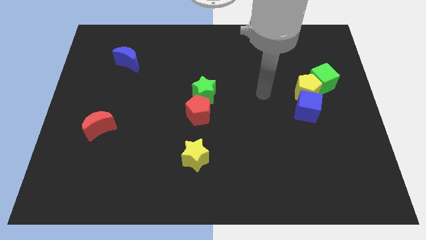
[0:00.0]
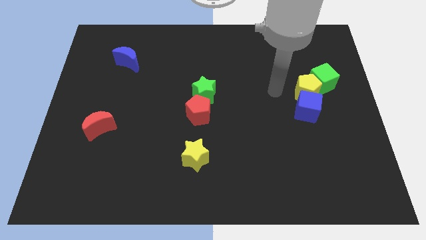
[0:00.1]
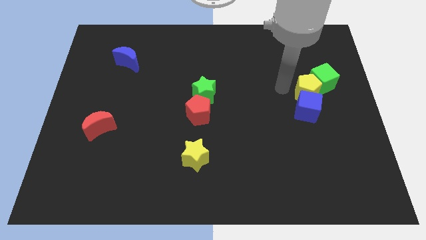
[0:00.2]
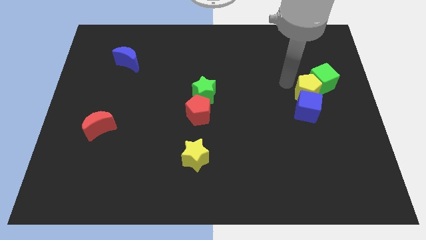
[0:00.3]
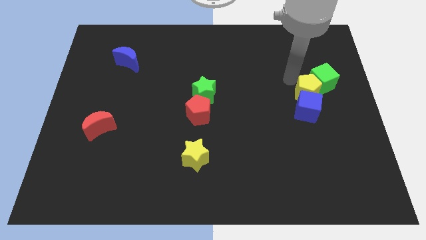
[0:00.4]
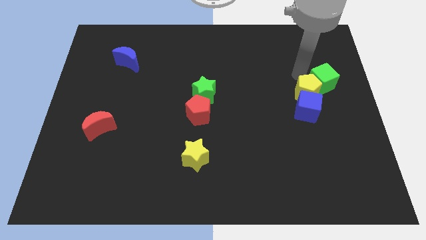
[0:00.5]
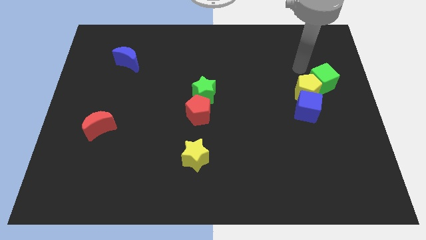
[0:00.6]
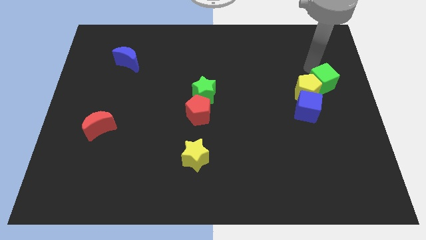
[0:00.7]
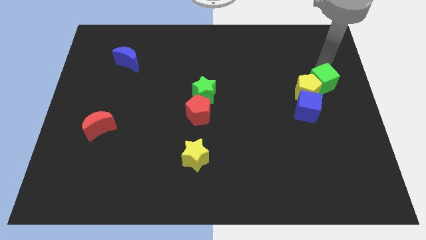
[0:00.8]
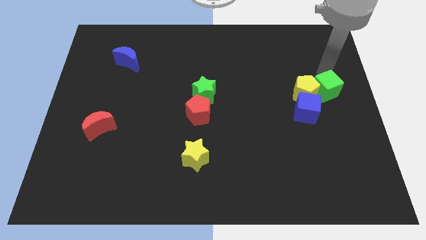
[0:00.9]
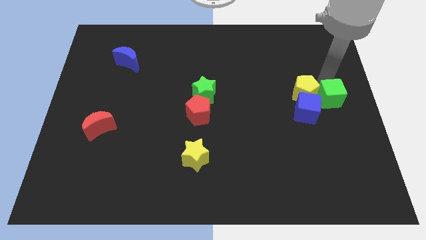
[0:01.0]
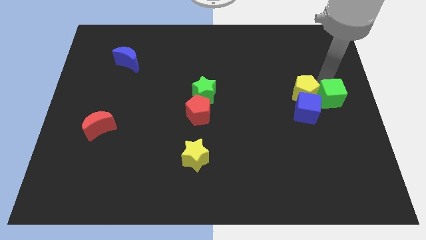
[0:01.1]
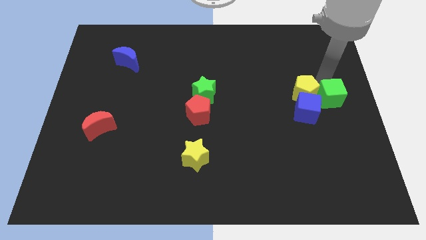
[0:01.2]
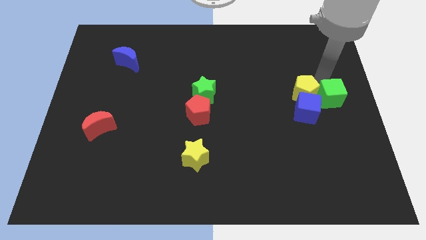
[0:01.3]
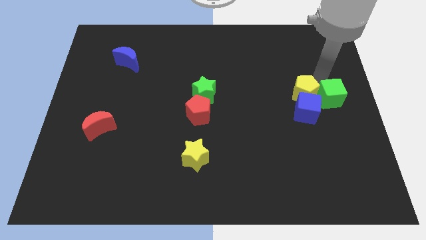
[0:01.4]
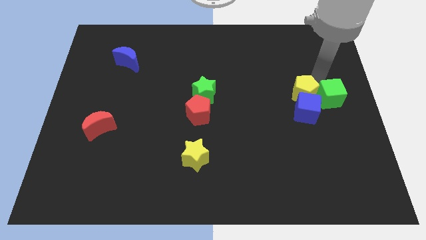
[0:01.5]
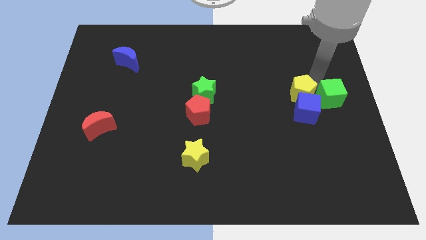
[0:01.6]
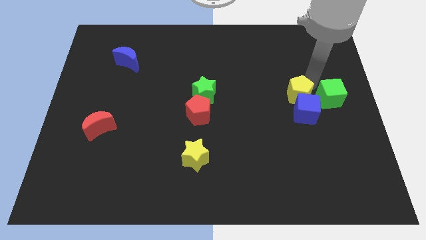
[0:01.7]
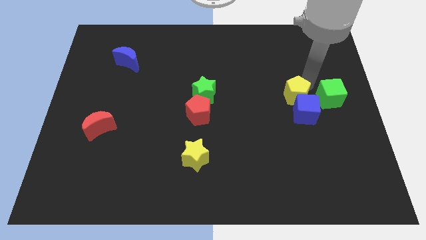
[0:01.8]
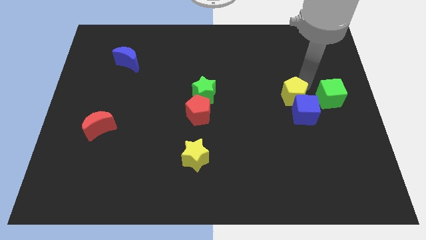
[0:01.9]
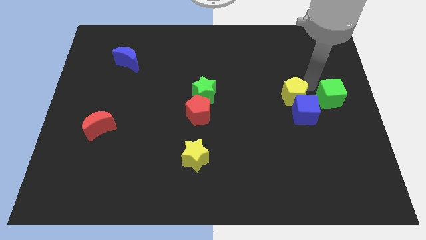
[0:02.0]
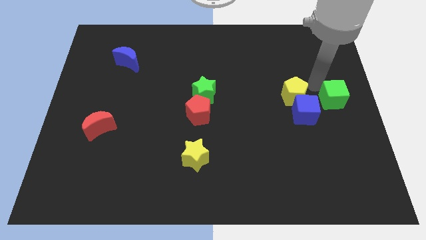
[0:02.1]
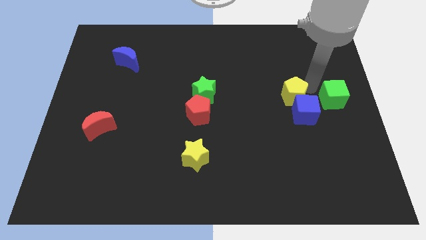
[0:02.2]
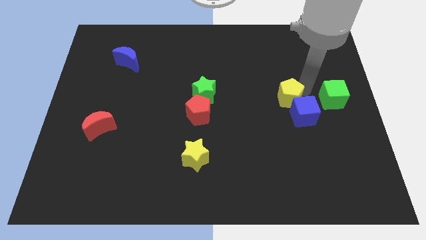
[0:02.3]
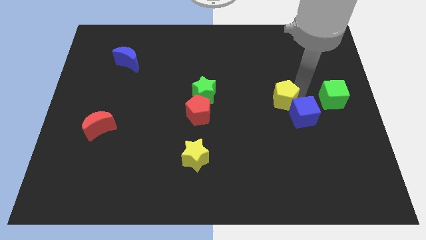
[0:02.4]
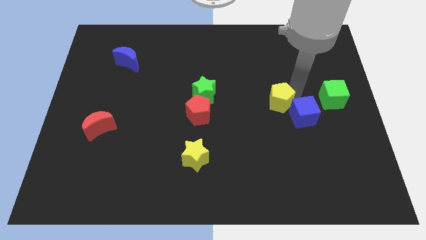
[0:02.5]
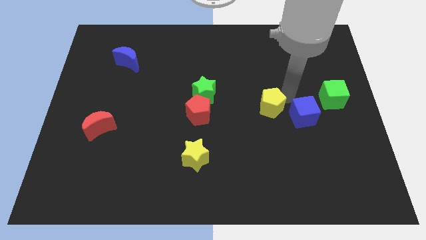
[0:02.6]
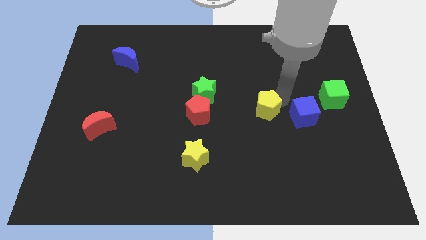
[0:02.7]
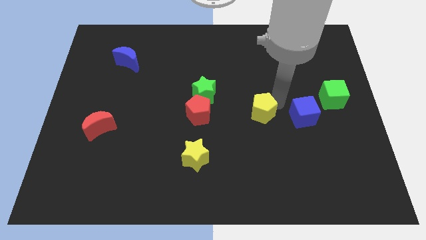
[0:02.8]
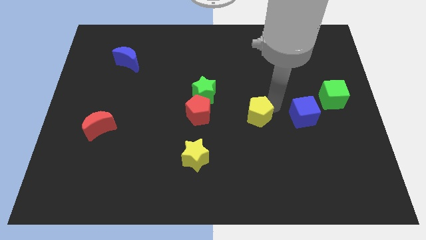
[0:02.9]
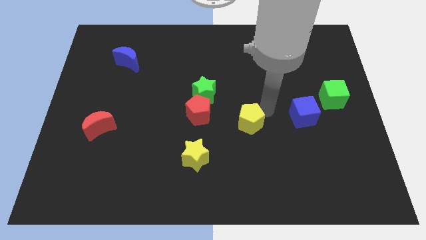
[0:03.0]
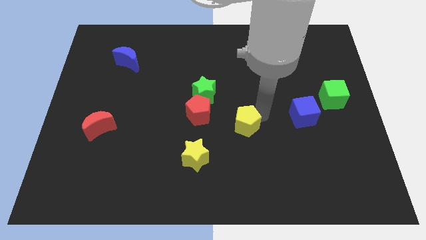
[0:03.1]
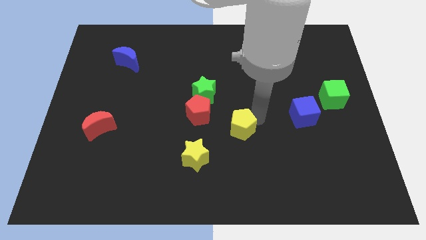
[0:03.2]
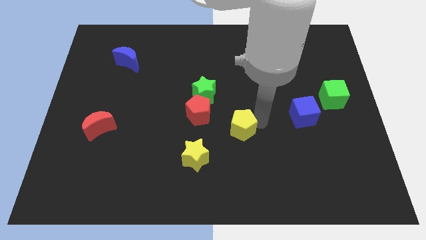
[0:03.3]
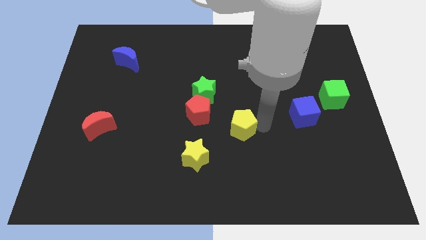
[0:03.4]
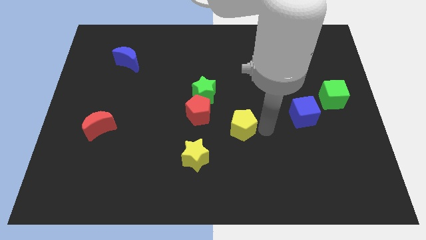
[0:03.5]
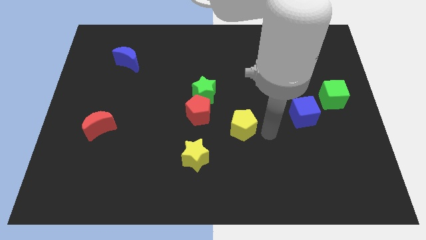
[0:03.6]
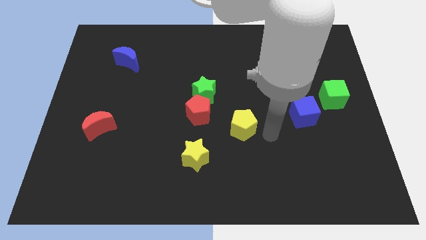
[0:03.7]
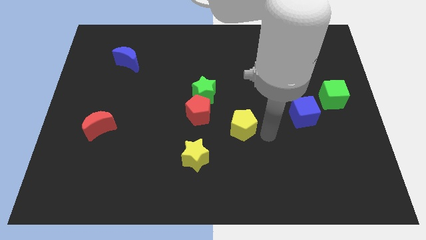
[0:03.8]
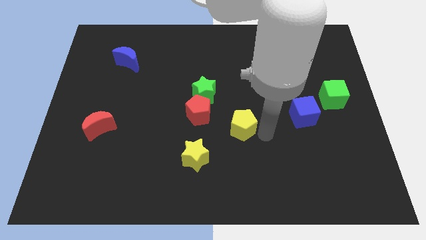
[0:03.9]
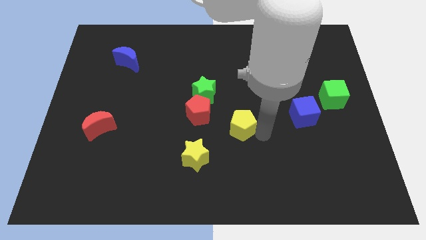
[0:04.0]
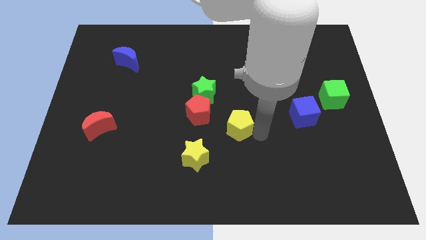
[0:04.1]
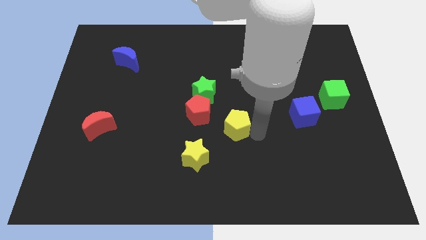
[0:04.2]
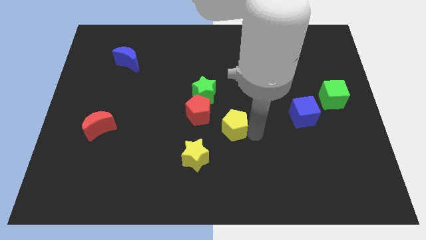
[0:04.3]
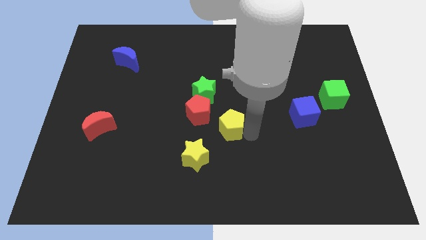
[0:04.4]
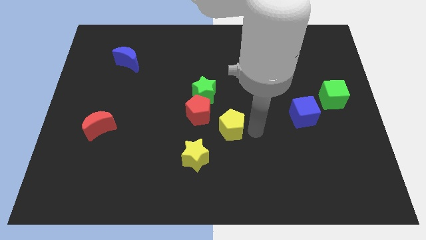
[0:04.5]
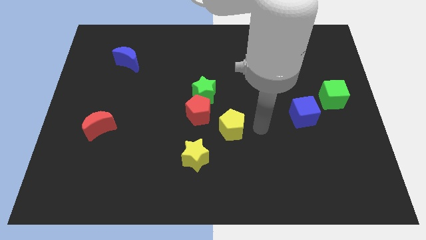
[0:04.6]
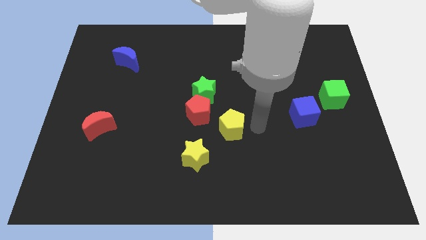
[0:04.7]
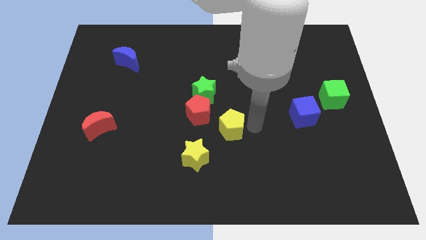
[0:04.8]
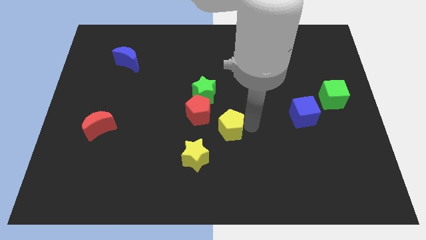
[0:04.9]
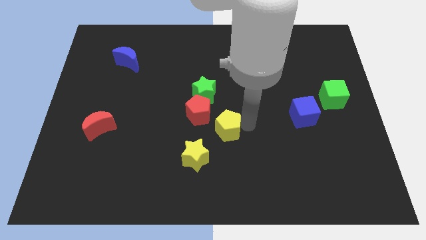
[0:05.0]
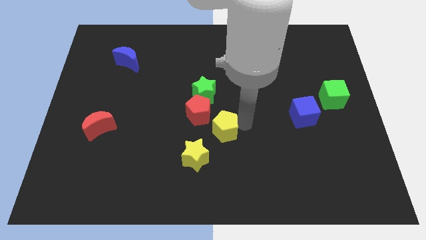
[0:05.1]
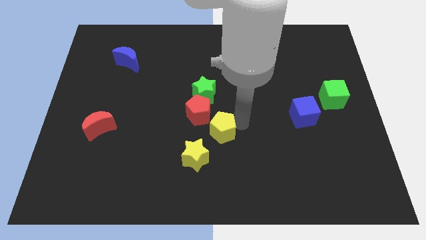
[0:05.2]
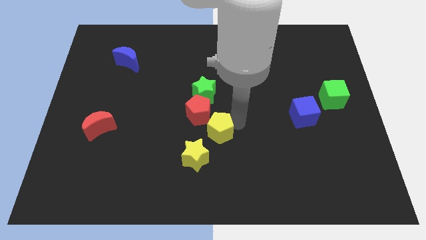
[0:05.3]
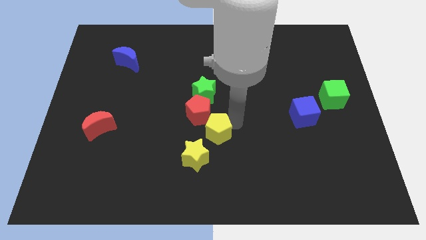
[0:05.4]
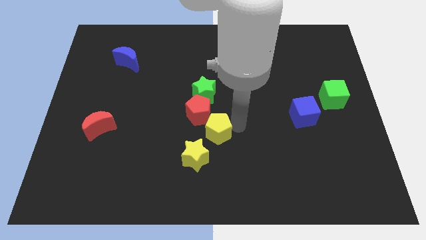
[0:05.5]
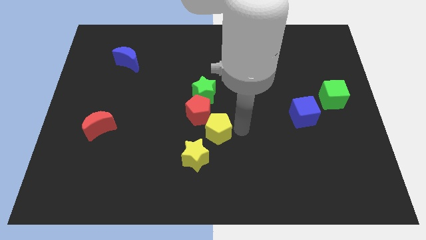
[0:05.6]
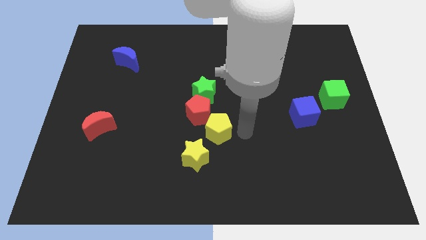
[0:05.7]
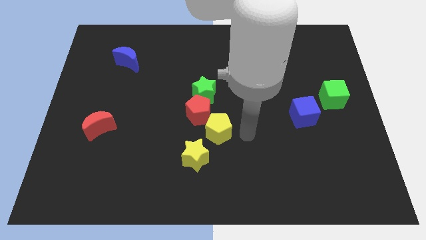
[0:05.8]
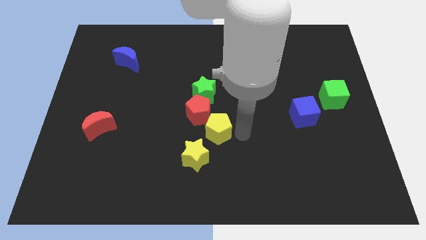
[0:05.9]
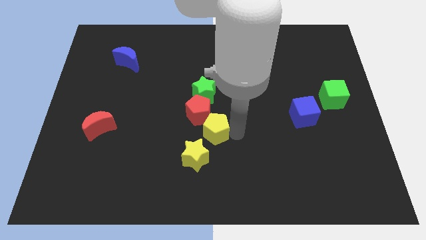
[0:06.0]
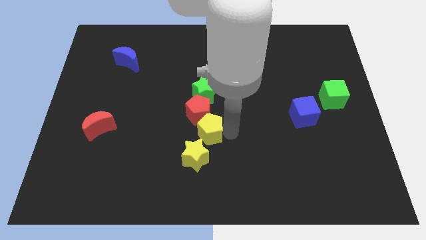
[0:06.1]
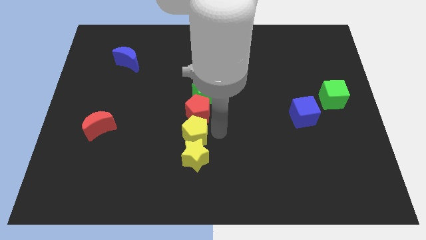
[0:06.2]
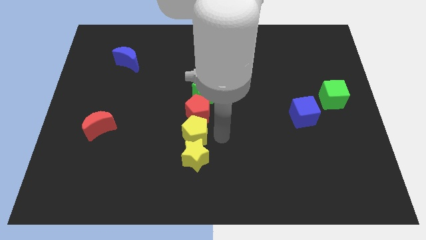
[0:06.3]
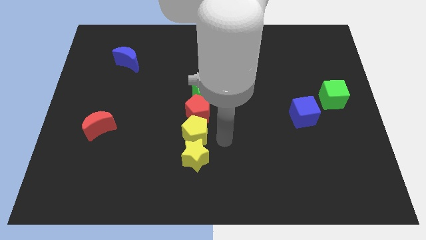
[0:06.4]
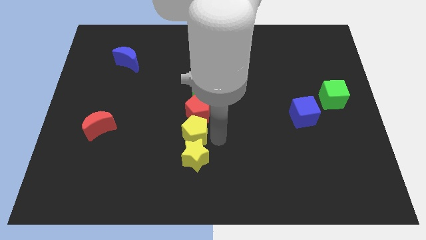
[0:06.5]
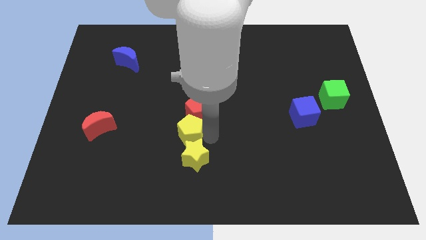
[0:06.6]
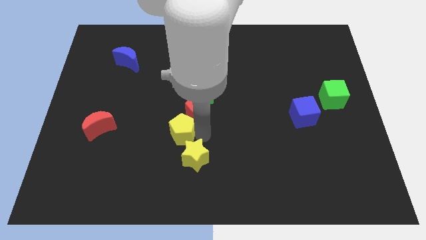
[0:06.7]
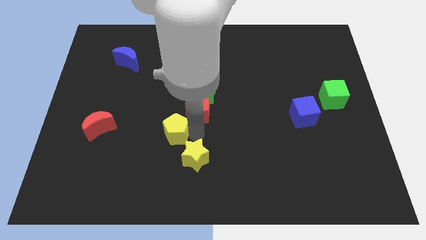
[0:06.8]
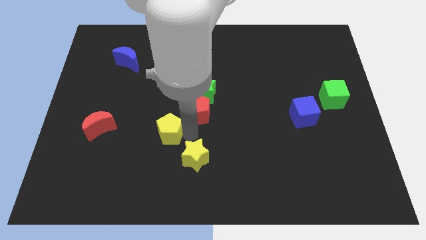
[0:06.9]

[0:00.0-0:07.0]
slide the yellow pentagon to the right of the red moon
